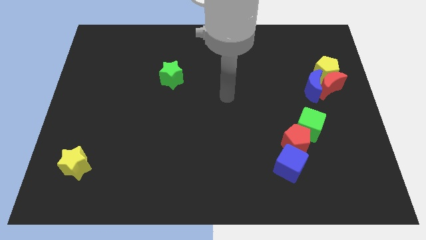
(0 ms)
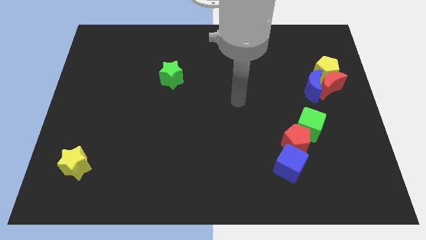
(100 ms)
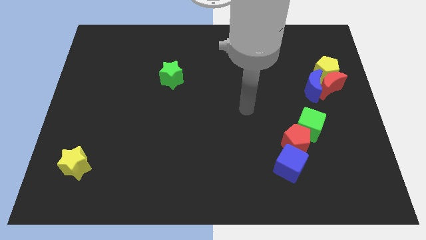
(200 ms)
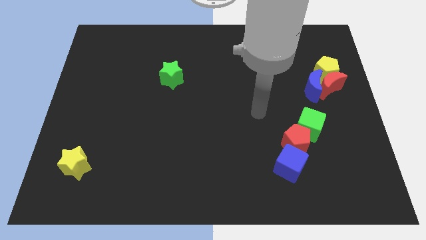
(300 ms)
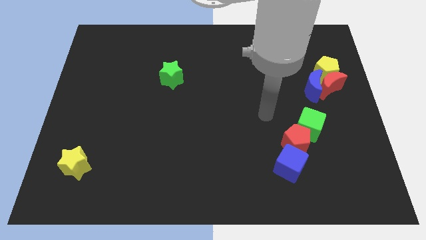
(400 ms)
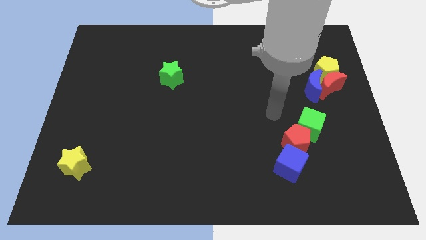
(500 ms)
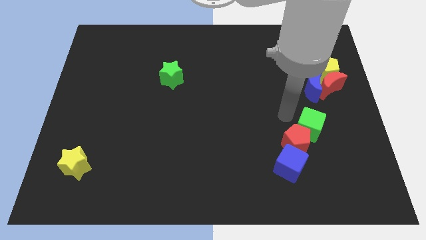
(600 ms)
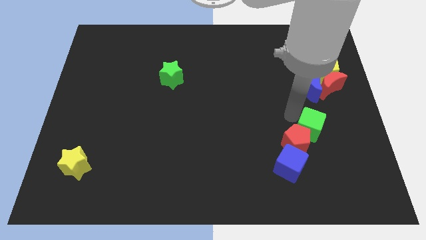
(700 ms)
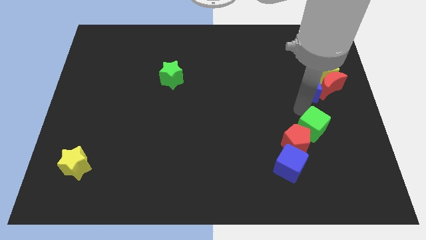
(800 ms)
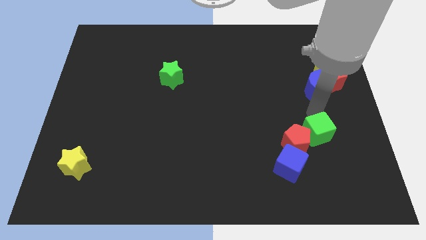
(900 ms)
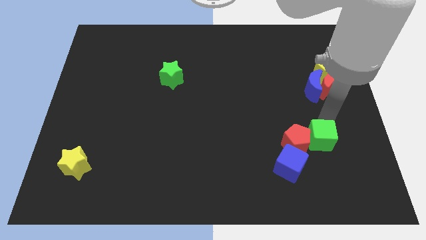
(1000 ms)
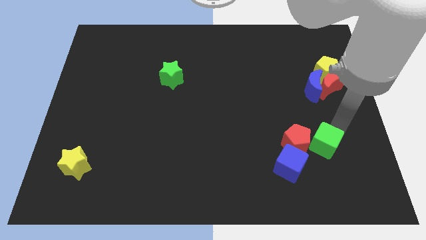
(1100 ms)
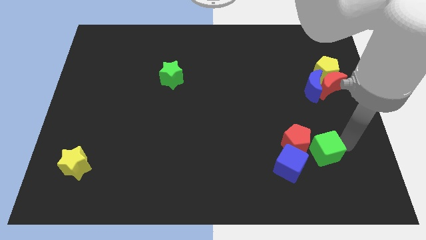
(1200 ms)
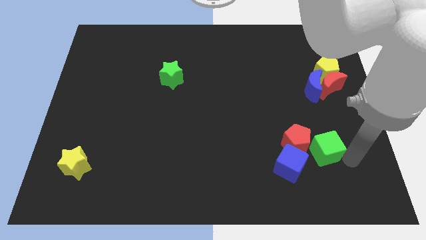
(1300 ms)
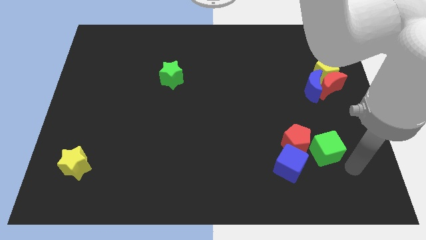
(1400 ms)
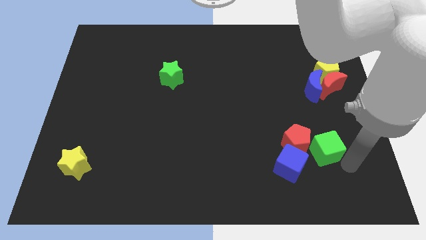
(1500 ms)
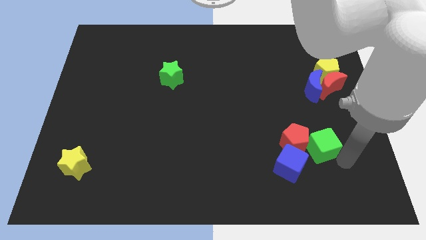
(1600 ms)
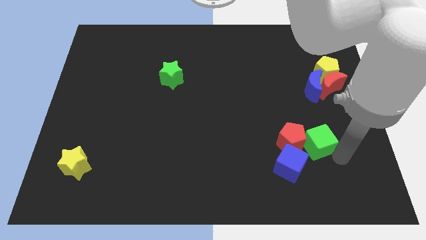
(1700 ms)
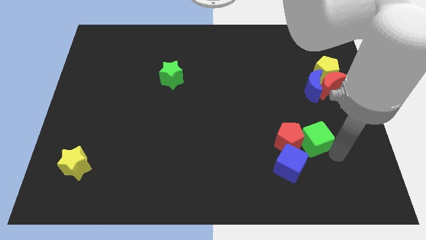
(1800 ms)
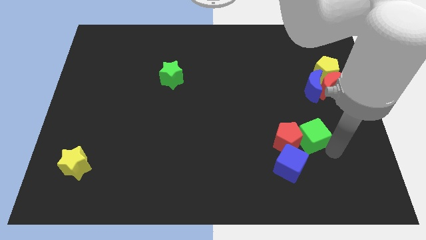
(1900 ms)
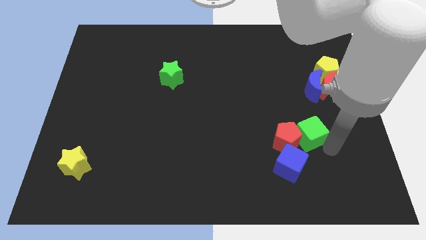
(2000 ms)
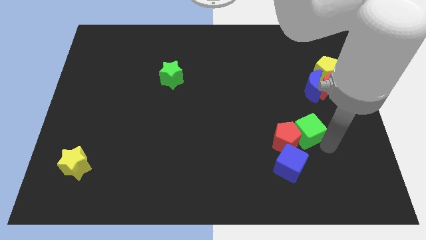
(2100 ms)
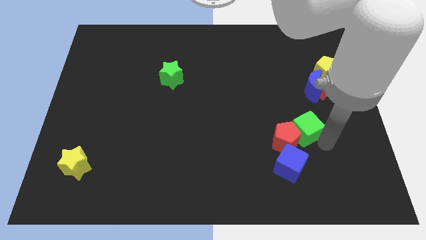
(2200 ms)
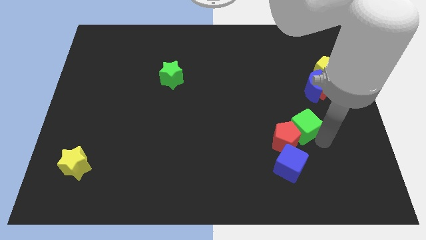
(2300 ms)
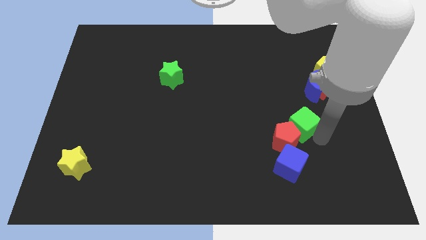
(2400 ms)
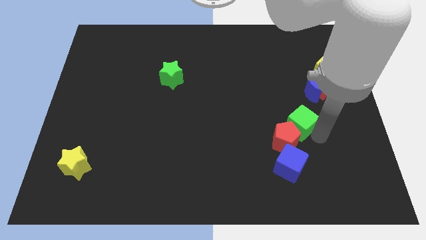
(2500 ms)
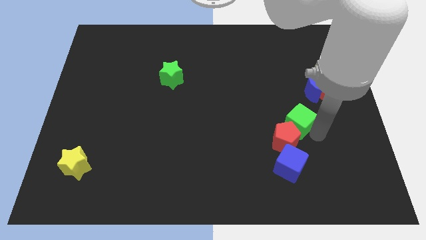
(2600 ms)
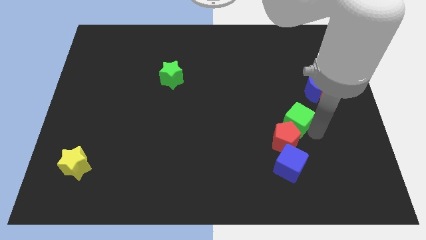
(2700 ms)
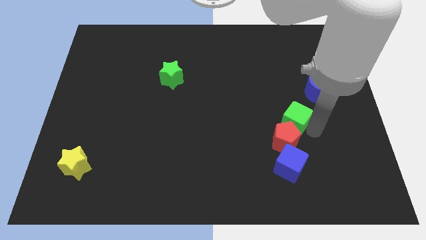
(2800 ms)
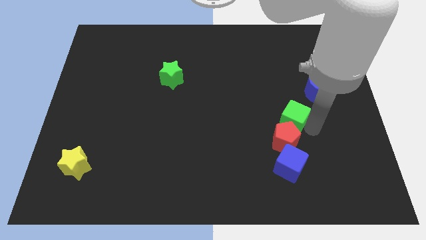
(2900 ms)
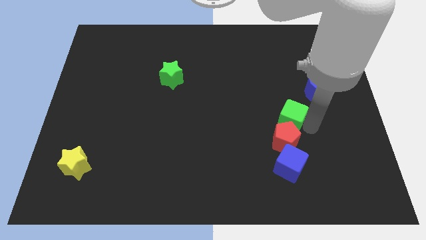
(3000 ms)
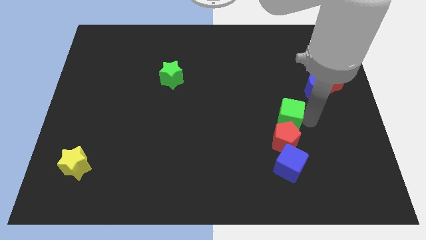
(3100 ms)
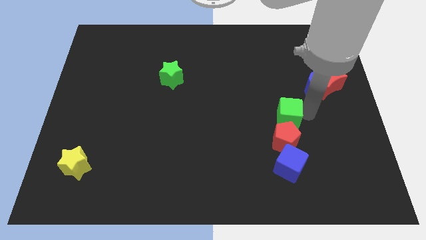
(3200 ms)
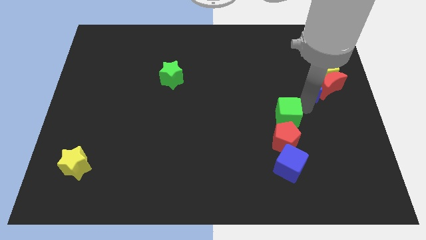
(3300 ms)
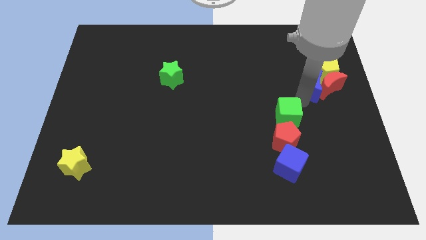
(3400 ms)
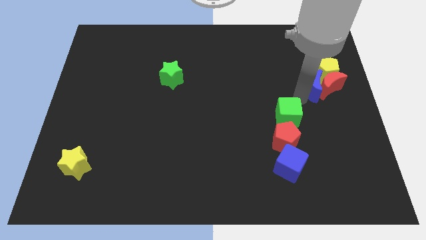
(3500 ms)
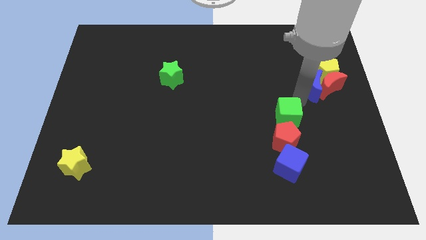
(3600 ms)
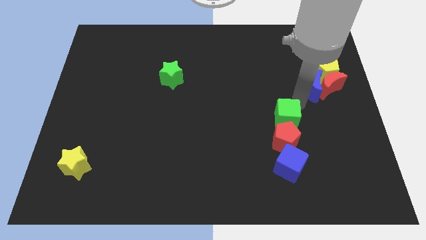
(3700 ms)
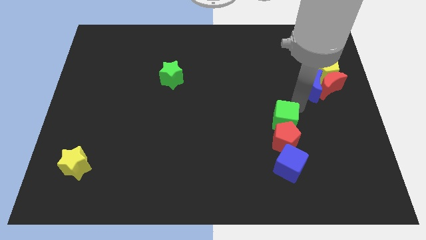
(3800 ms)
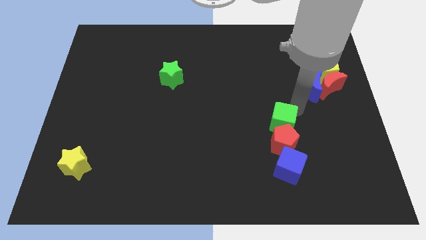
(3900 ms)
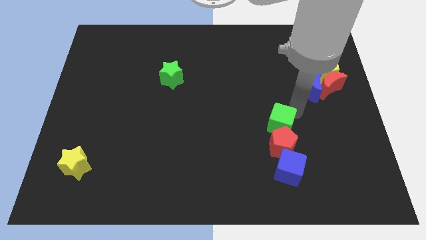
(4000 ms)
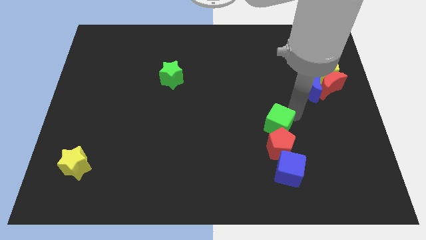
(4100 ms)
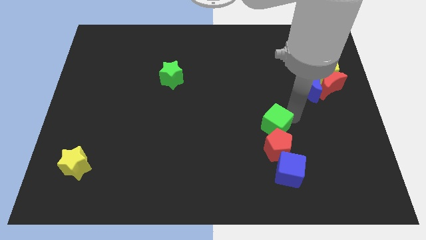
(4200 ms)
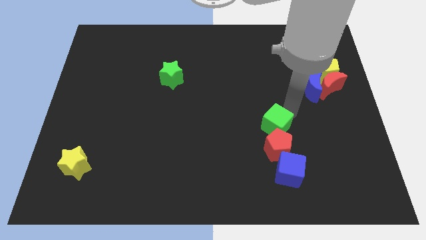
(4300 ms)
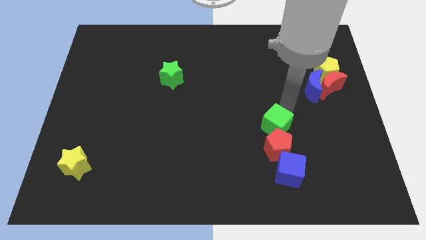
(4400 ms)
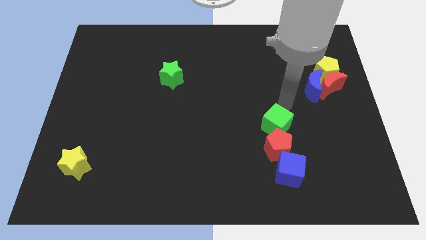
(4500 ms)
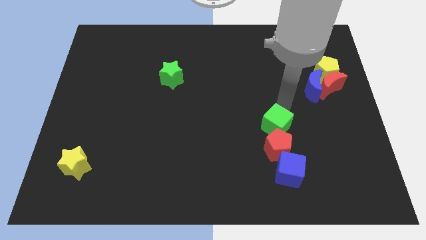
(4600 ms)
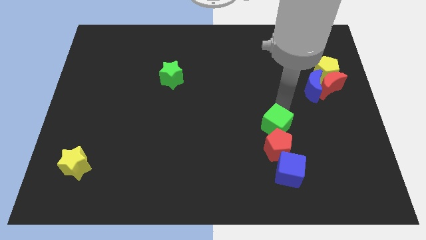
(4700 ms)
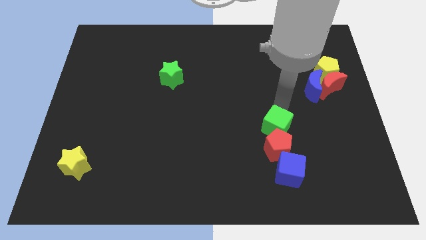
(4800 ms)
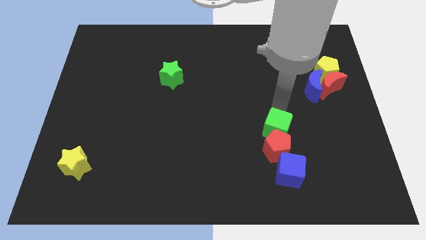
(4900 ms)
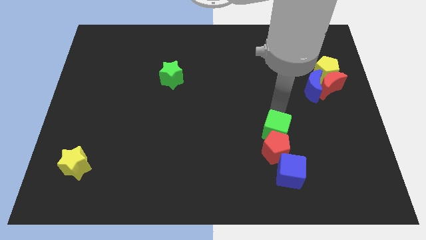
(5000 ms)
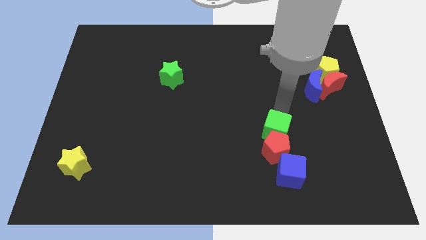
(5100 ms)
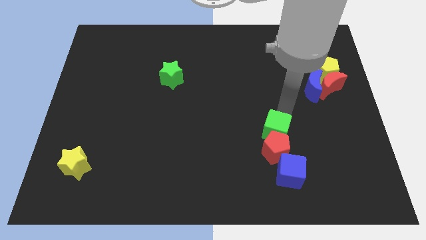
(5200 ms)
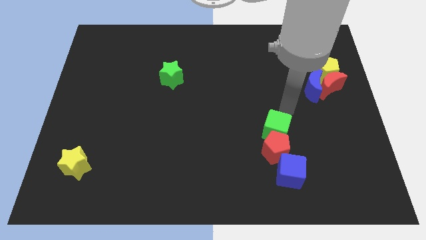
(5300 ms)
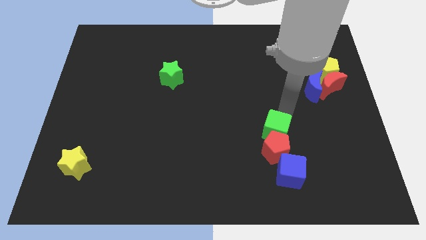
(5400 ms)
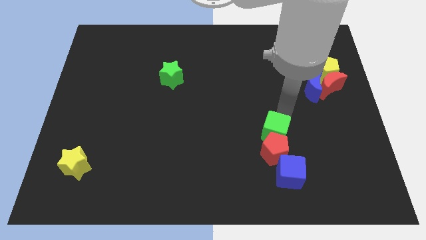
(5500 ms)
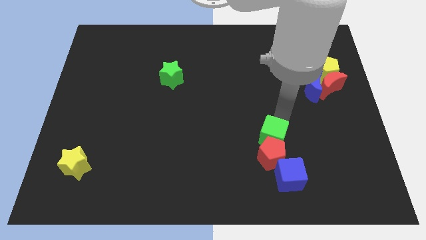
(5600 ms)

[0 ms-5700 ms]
slightly move the green cube downwards and then left

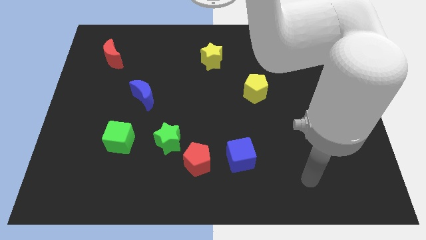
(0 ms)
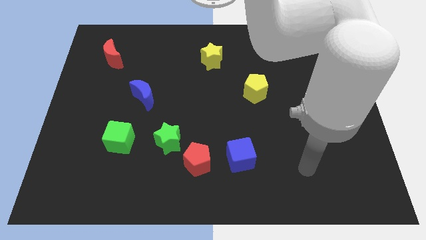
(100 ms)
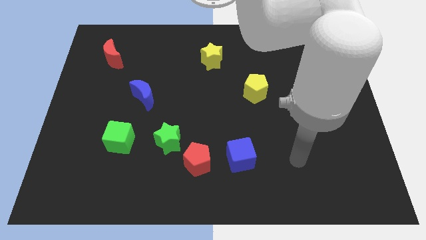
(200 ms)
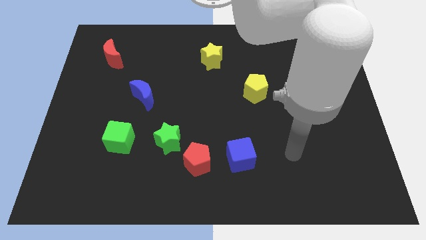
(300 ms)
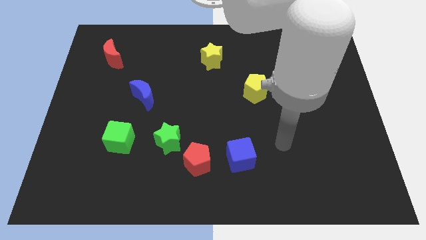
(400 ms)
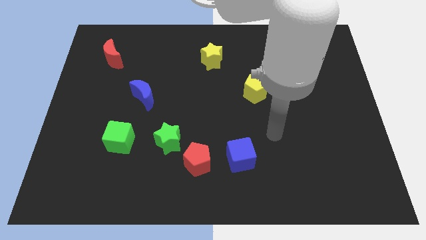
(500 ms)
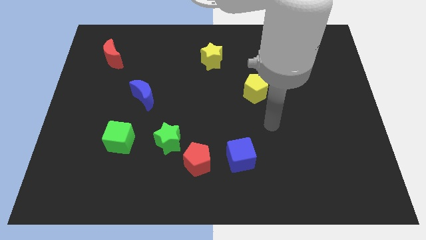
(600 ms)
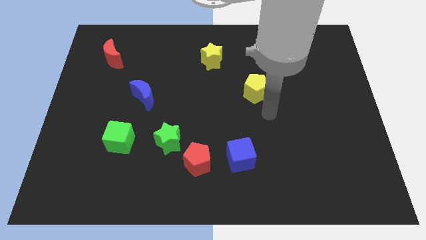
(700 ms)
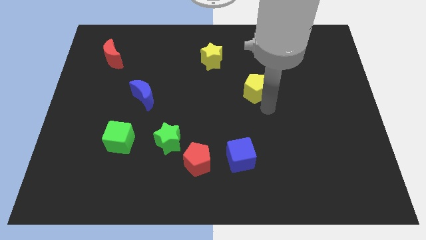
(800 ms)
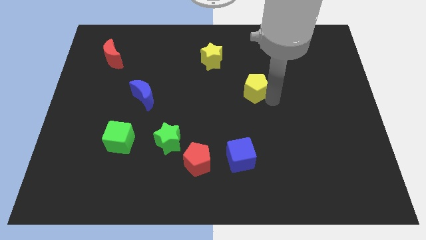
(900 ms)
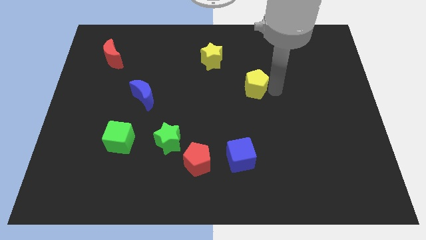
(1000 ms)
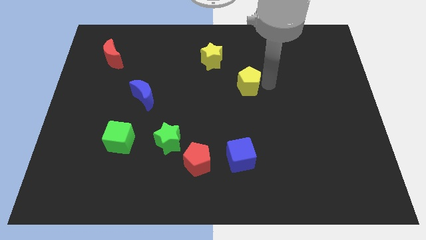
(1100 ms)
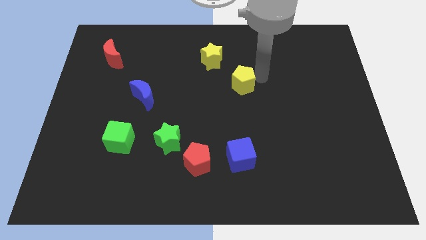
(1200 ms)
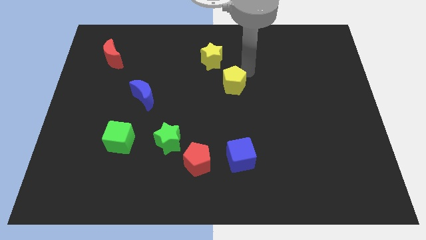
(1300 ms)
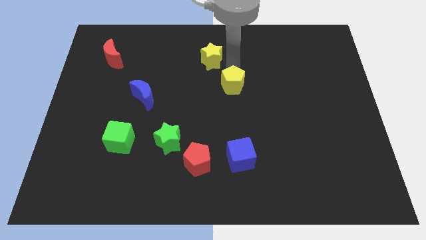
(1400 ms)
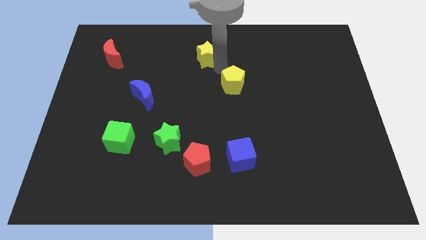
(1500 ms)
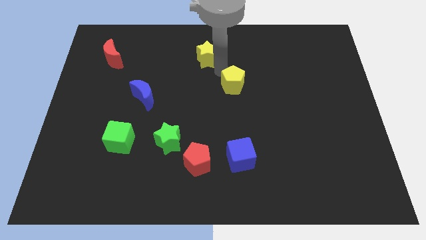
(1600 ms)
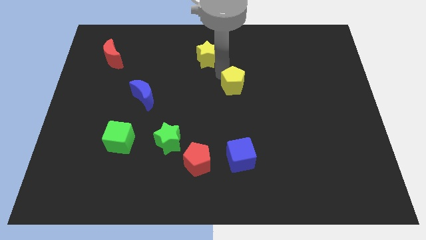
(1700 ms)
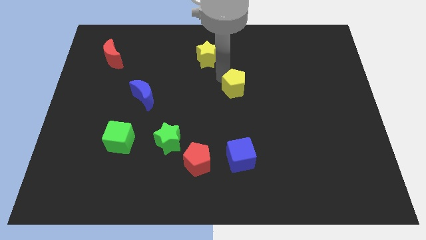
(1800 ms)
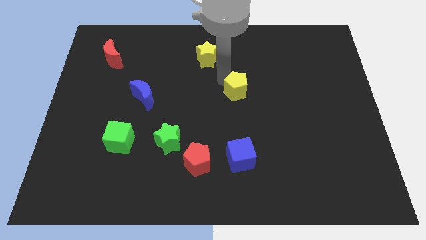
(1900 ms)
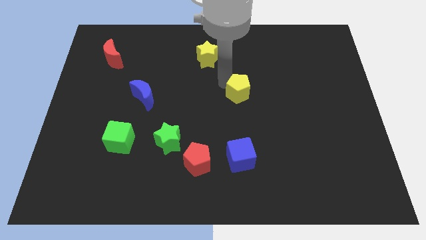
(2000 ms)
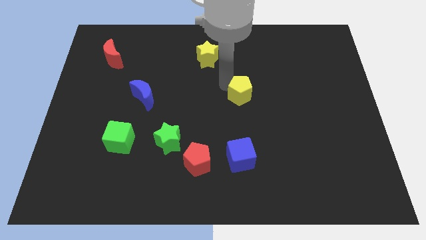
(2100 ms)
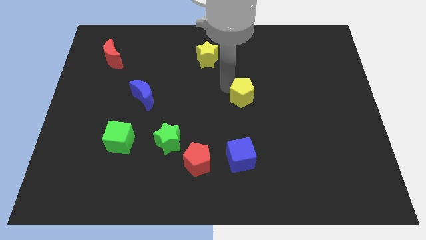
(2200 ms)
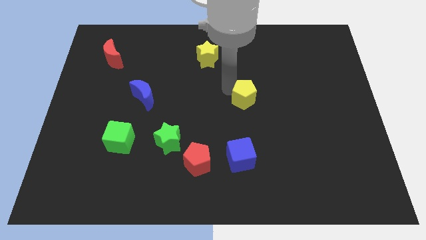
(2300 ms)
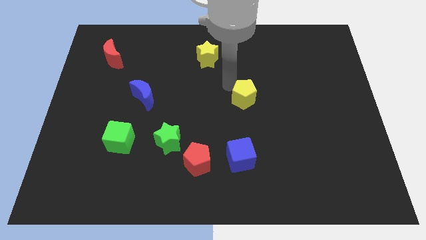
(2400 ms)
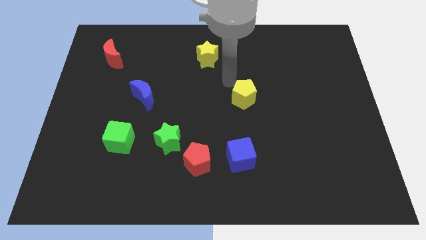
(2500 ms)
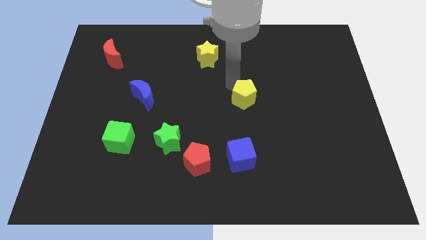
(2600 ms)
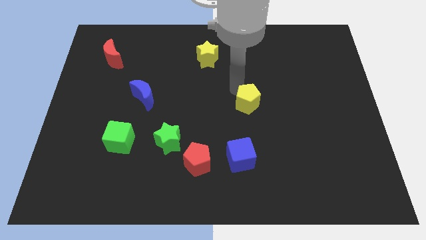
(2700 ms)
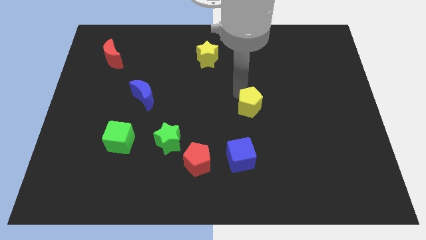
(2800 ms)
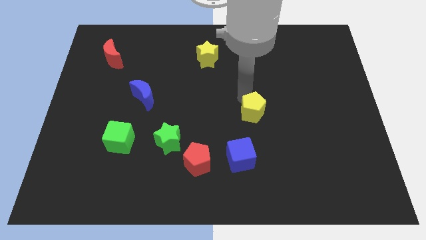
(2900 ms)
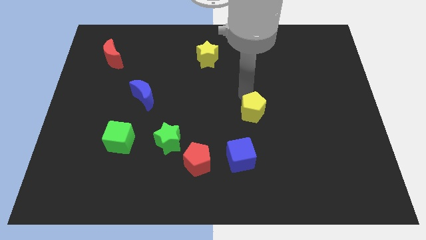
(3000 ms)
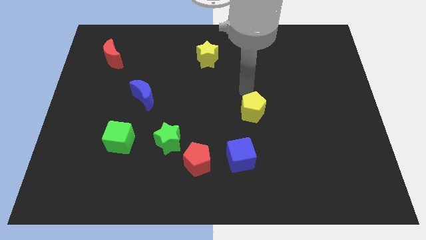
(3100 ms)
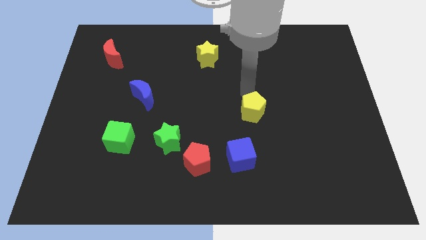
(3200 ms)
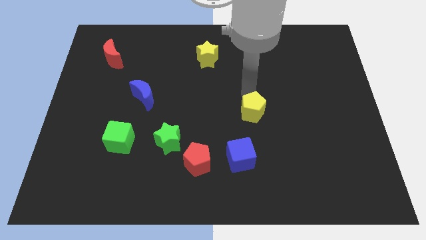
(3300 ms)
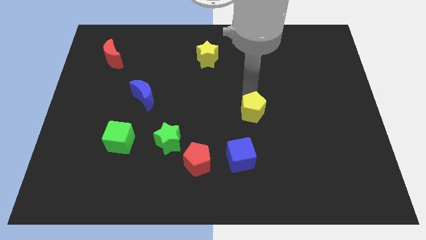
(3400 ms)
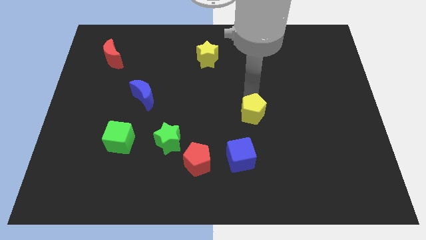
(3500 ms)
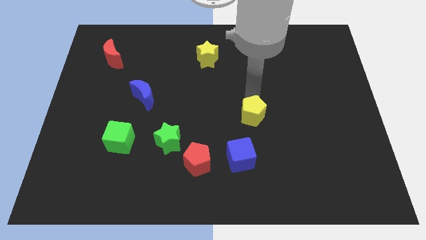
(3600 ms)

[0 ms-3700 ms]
move the yellow pentagon down a little
